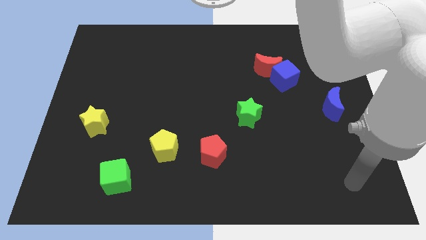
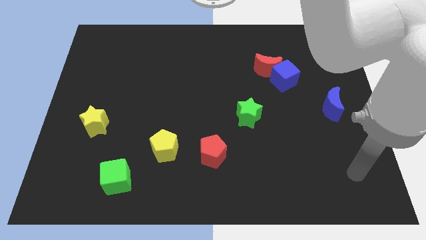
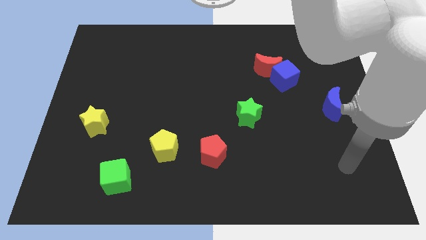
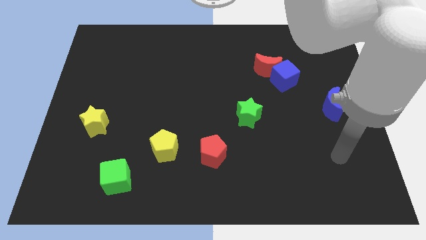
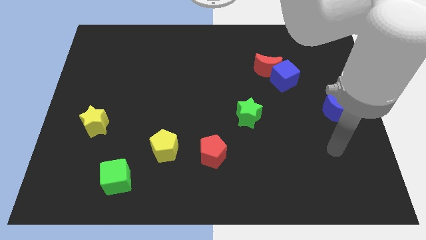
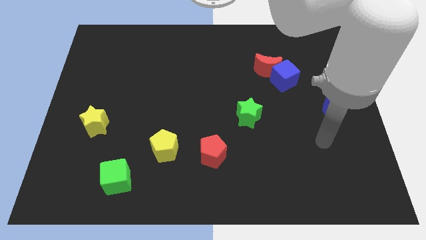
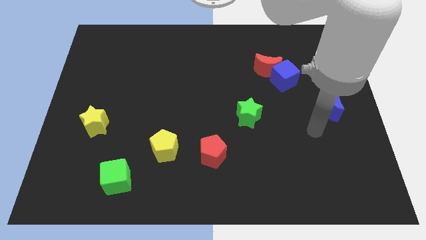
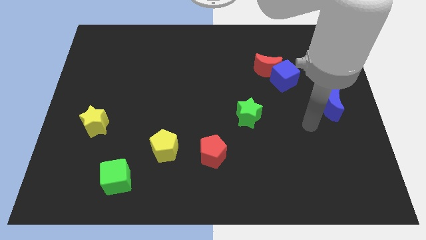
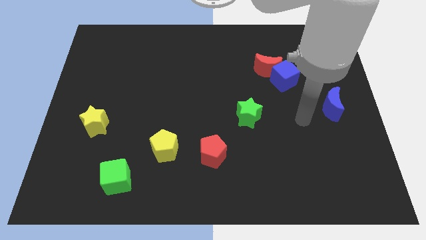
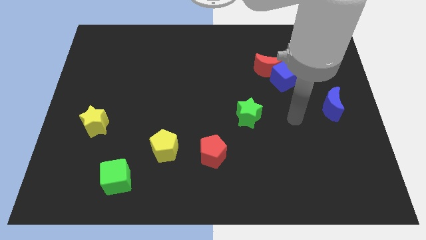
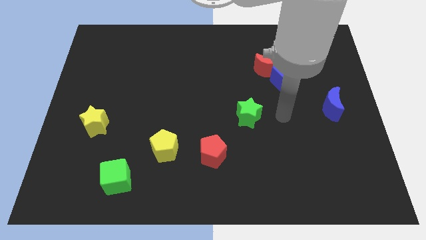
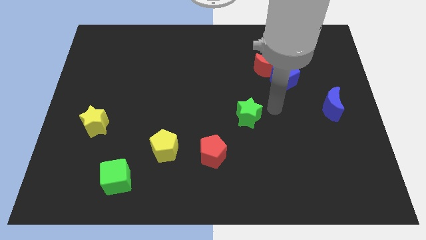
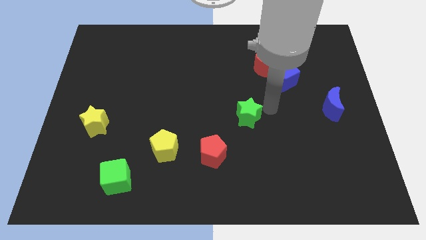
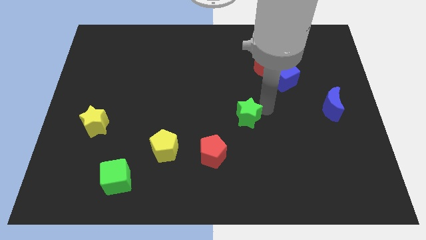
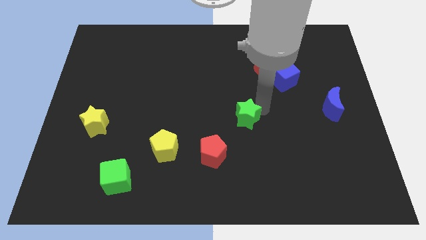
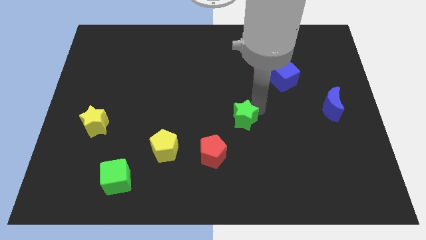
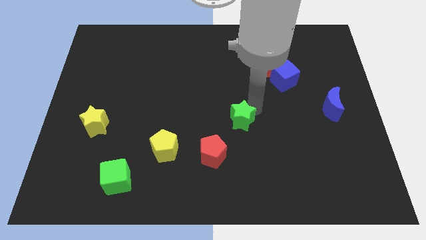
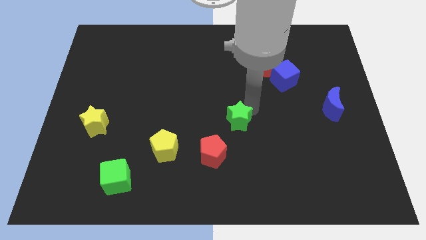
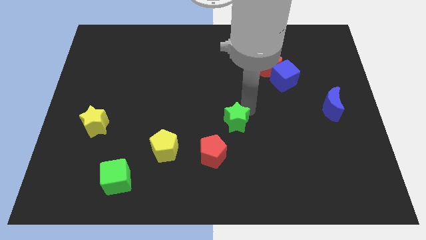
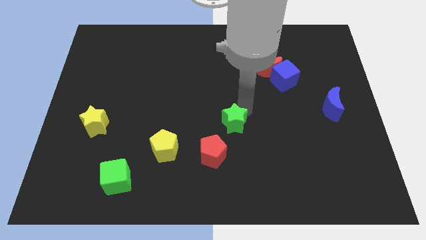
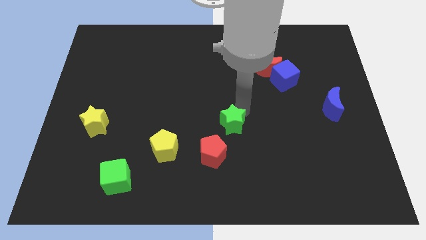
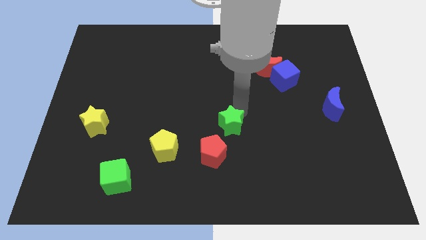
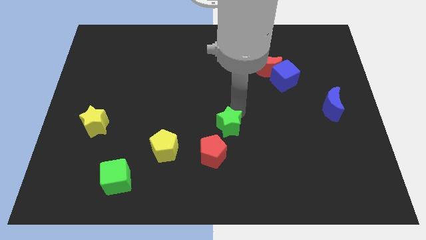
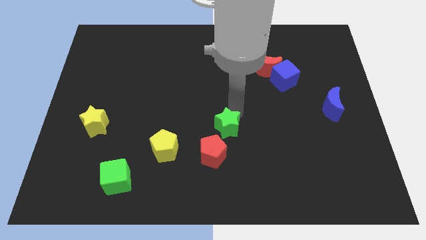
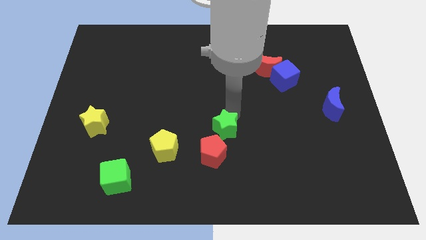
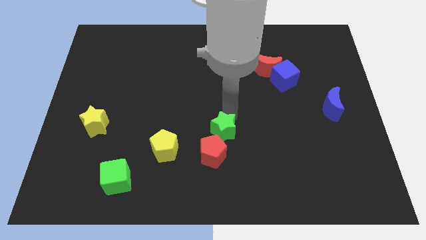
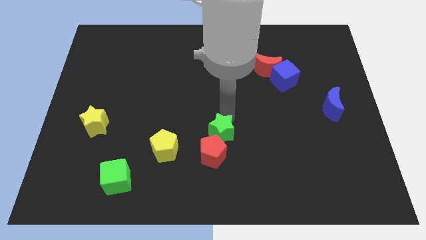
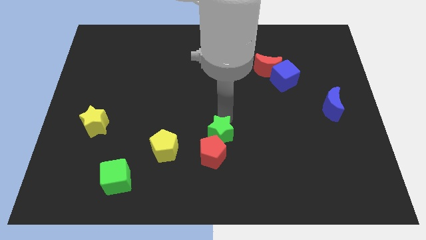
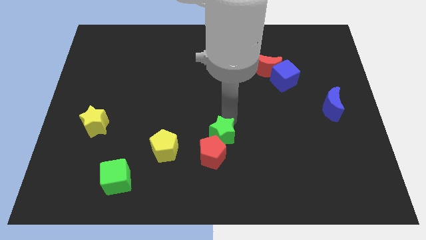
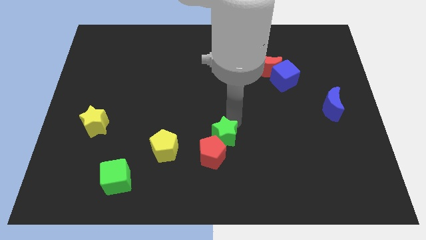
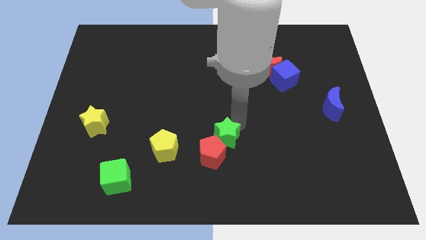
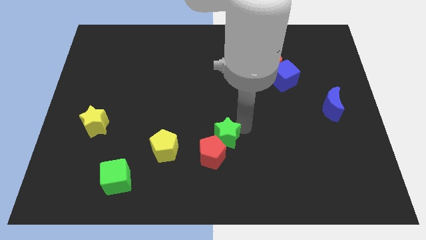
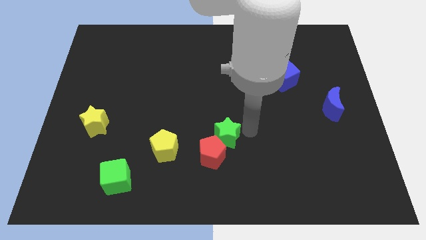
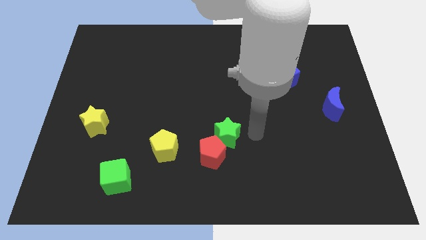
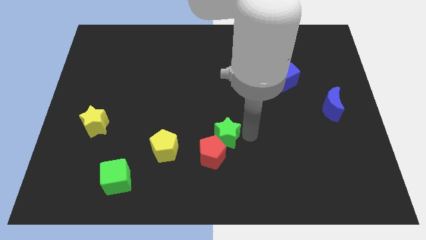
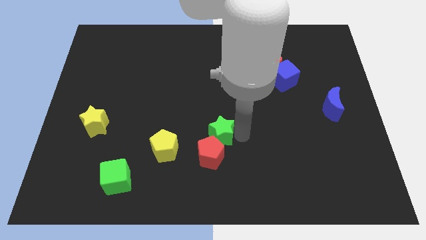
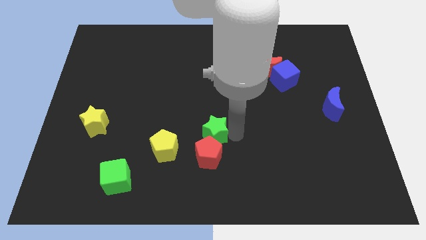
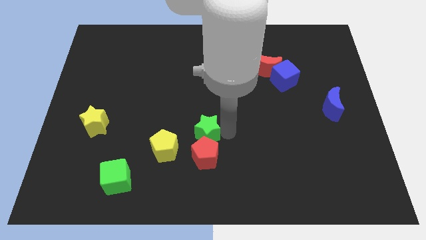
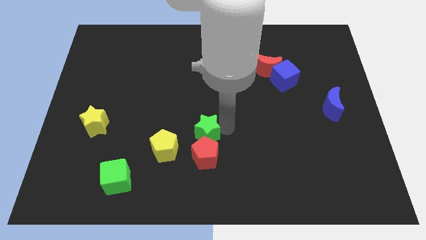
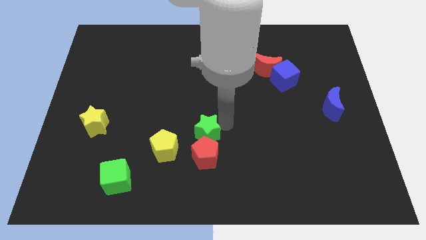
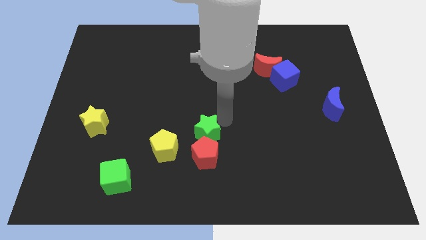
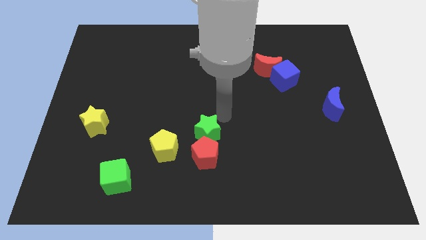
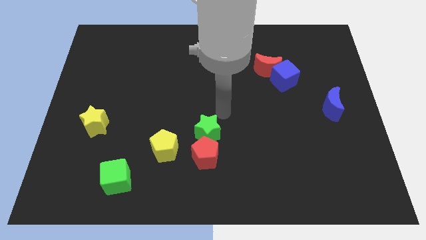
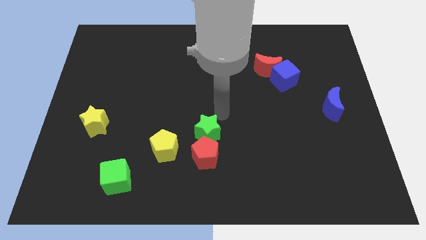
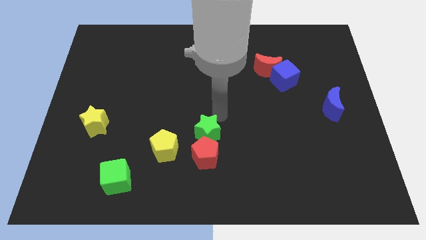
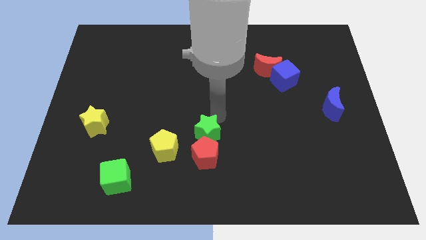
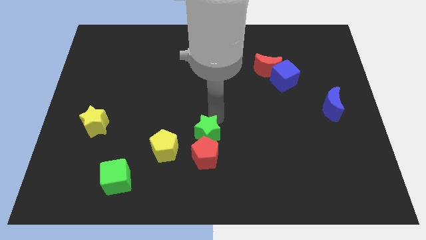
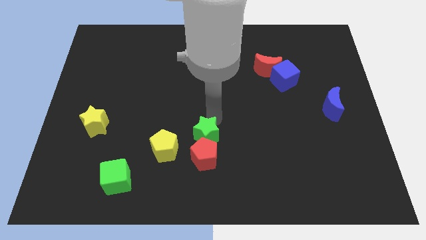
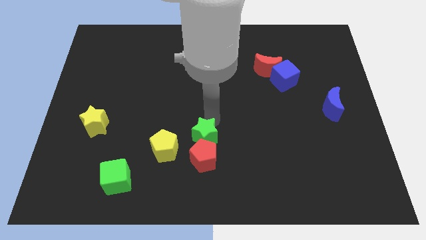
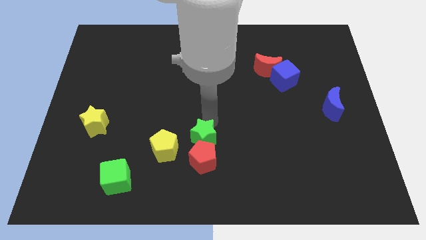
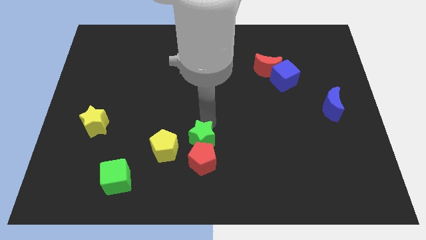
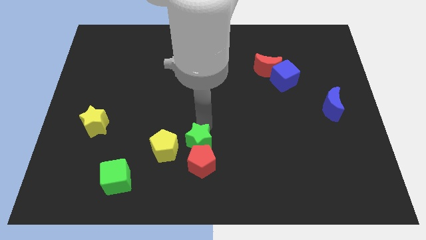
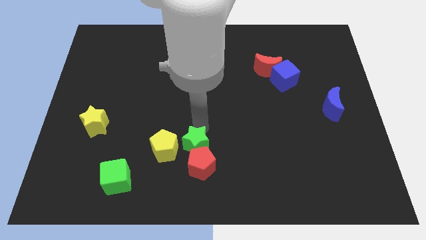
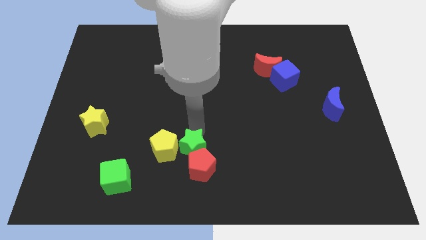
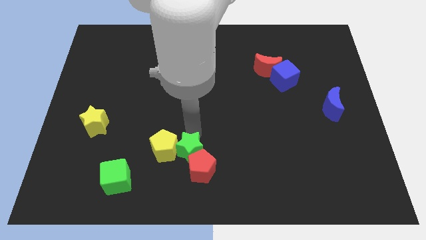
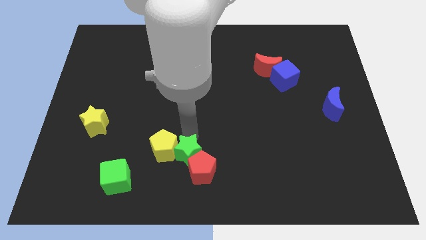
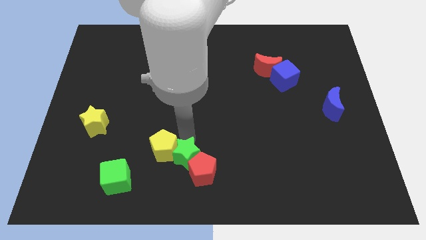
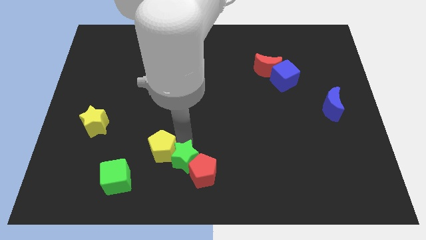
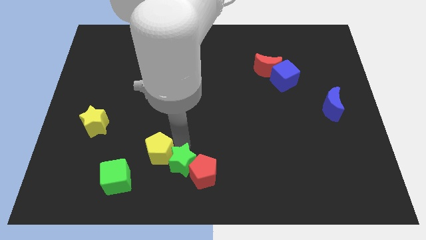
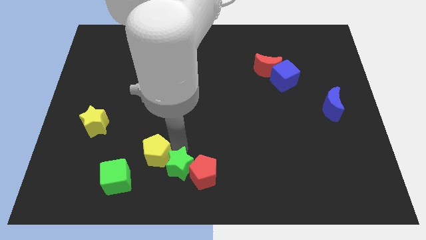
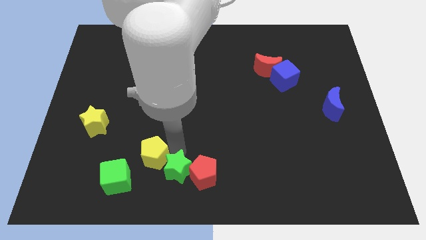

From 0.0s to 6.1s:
push the green star to the bottom left side of the red pentagon

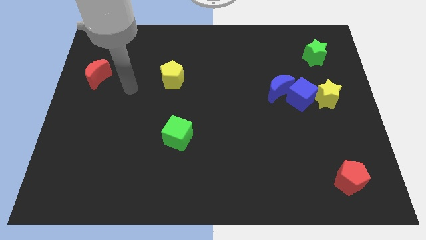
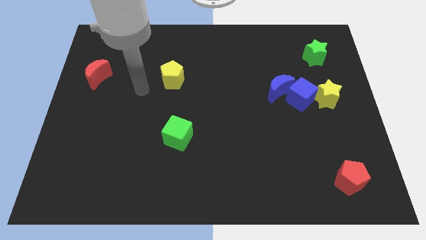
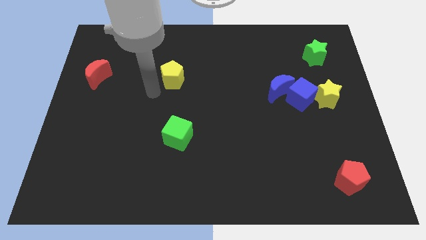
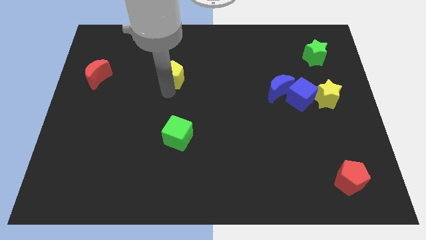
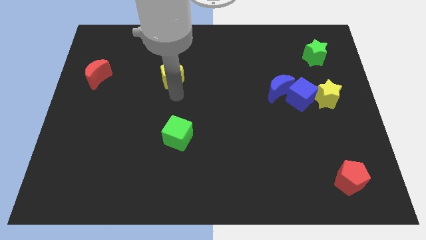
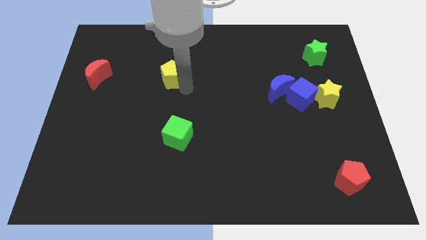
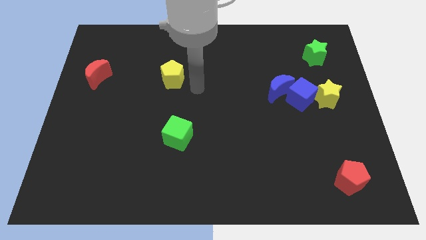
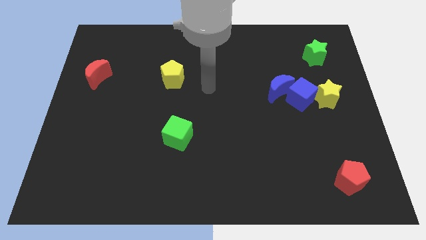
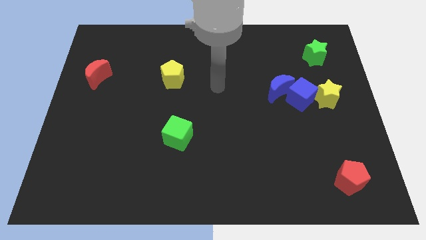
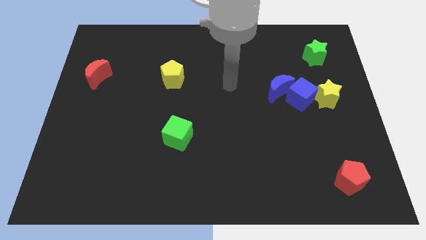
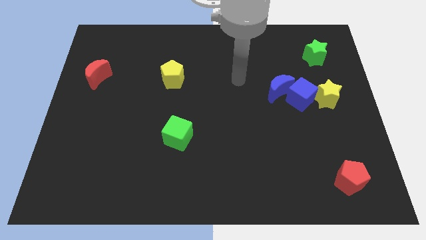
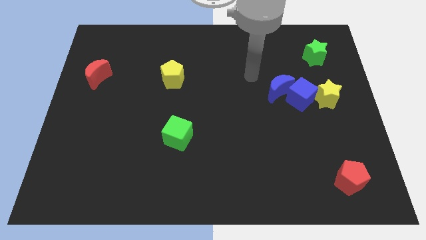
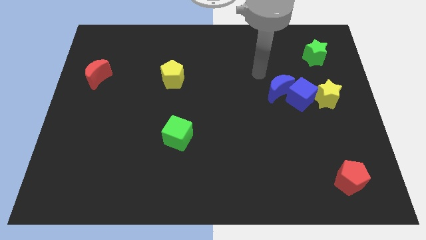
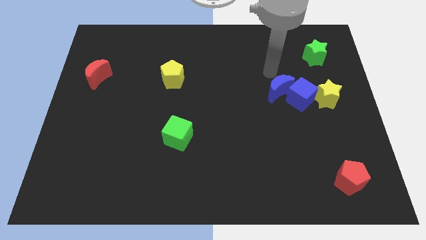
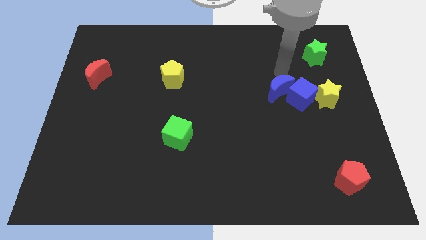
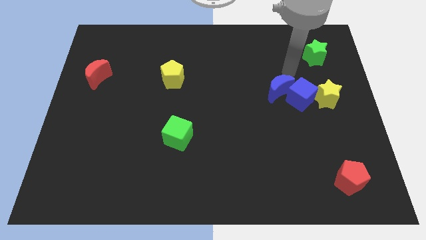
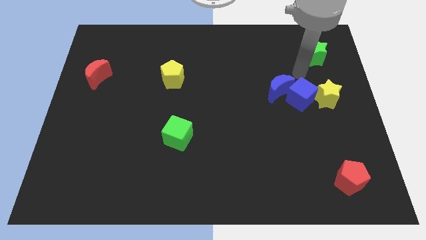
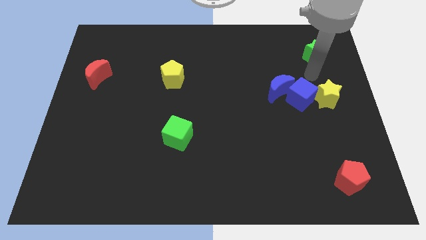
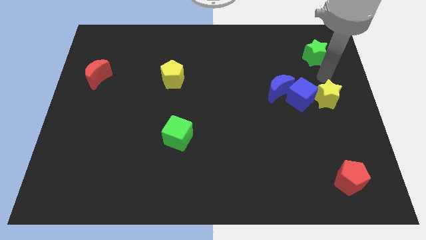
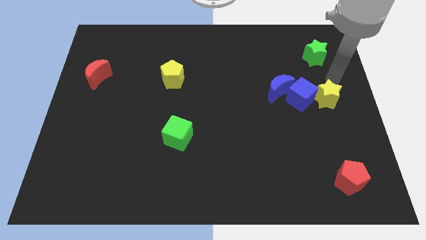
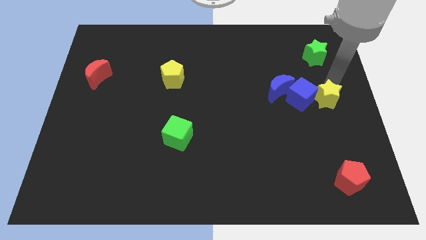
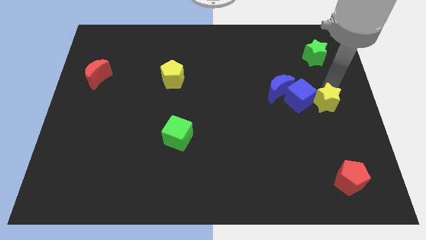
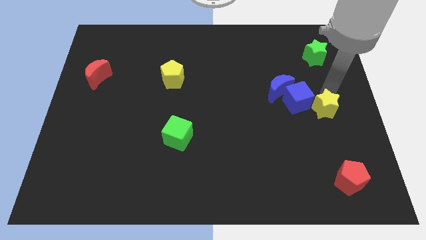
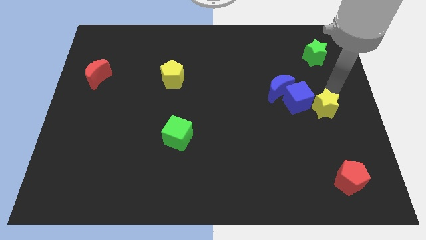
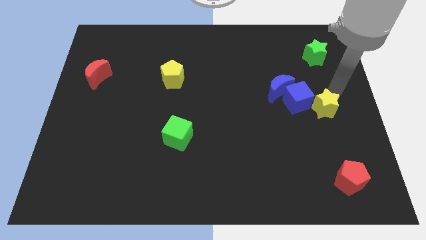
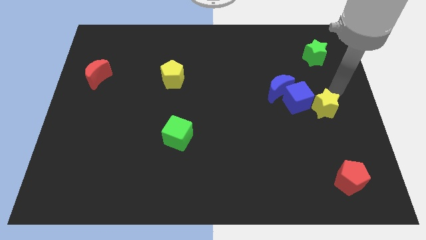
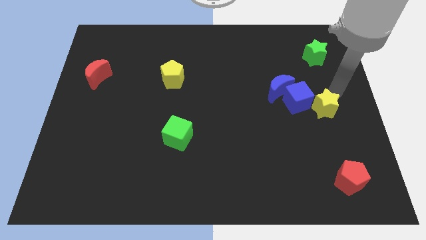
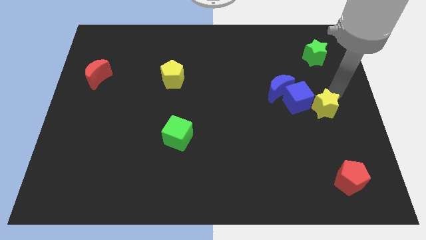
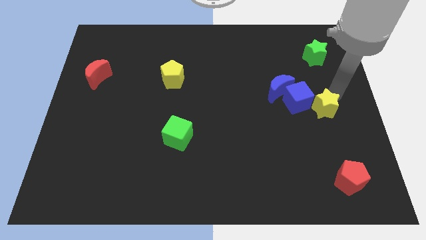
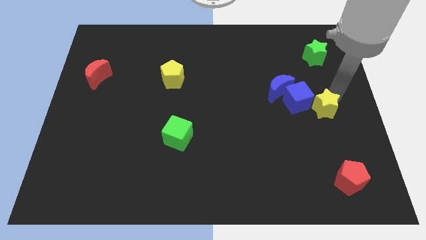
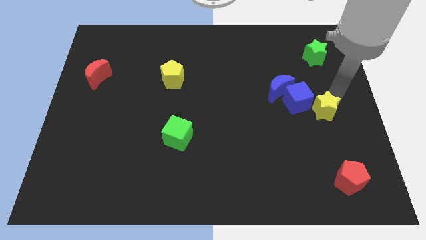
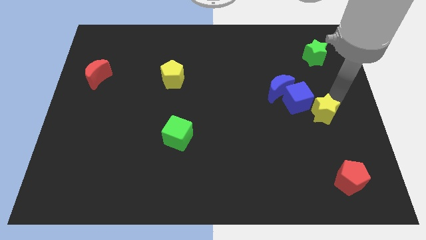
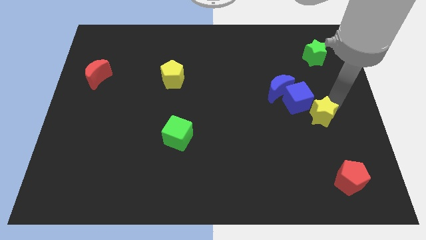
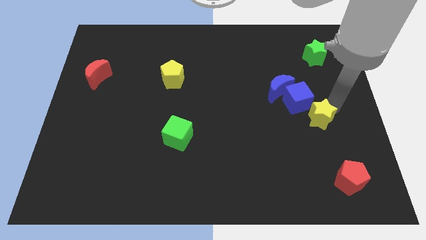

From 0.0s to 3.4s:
slide the yellow star to the bottom of the blue cube
